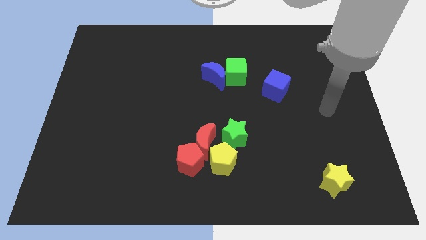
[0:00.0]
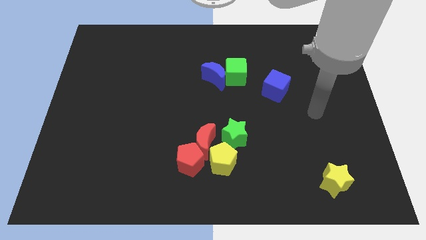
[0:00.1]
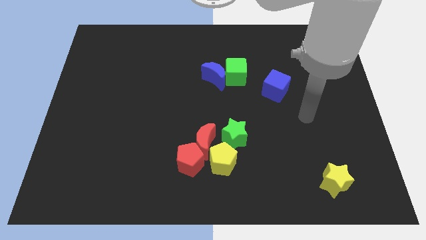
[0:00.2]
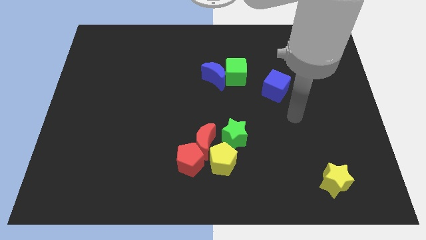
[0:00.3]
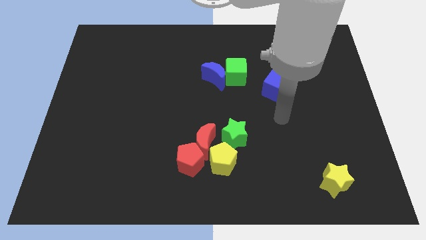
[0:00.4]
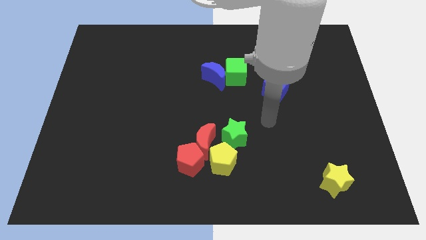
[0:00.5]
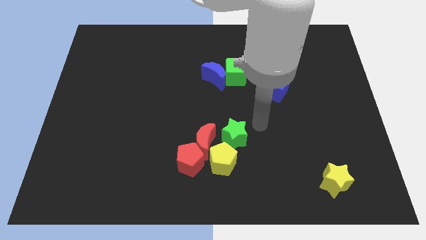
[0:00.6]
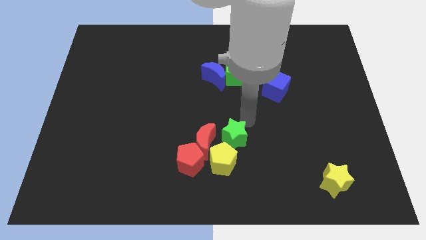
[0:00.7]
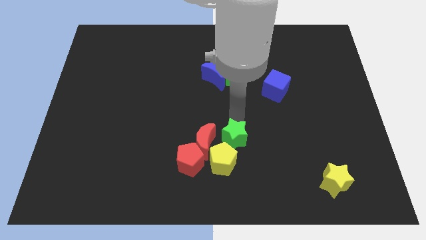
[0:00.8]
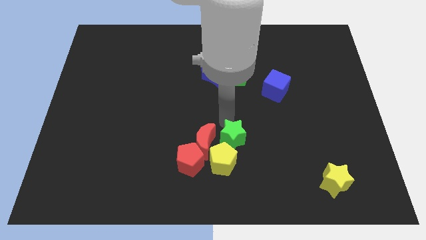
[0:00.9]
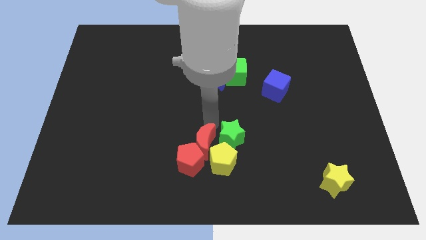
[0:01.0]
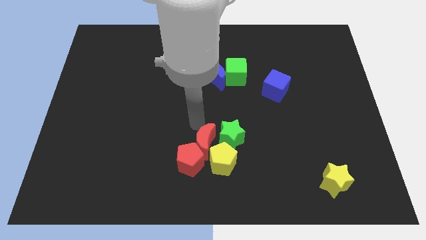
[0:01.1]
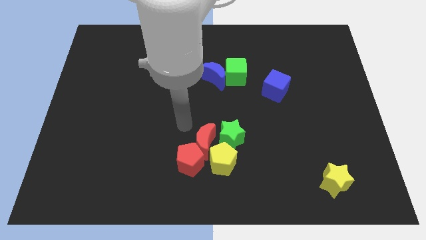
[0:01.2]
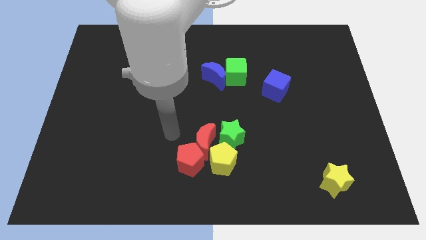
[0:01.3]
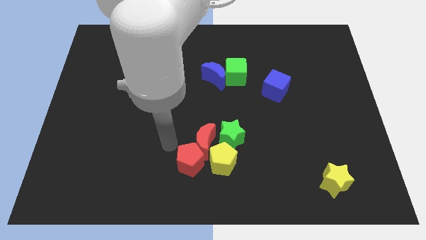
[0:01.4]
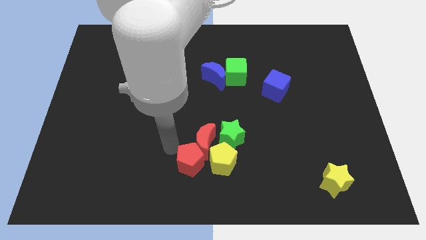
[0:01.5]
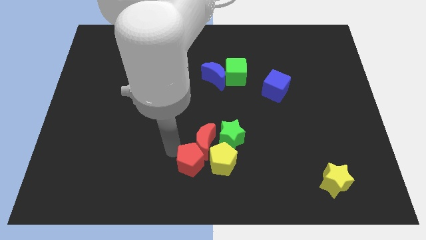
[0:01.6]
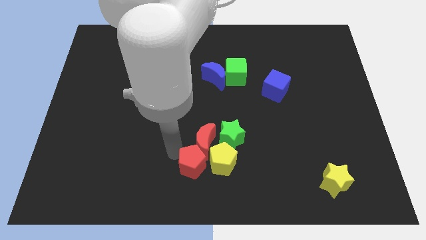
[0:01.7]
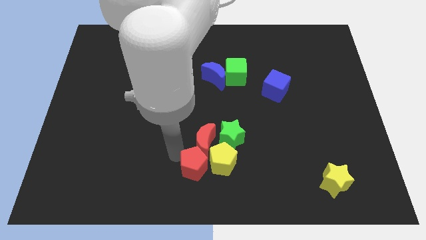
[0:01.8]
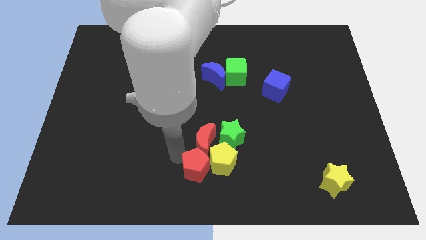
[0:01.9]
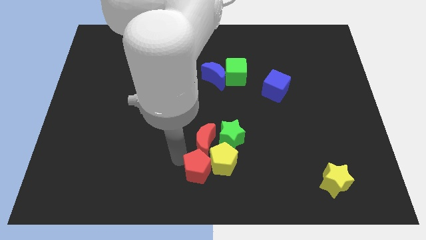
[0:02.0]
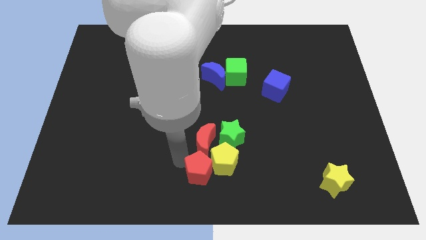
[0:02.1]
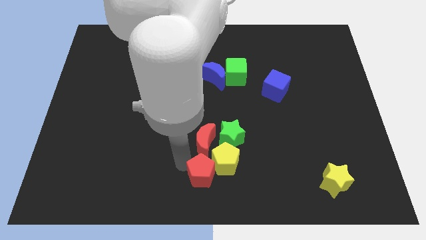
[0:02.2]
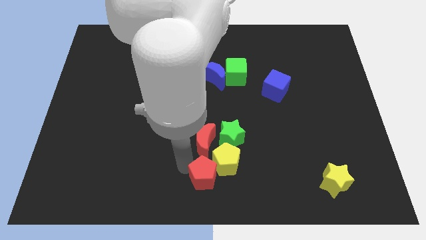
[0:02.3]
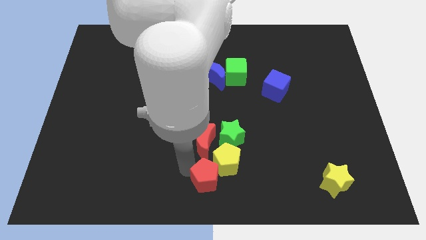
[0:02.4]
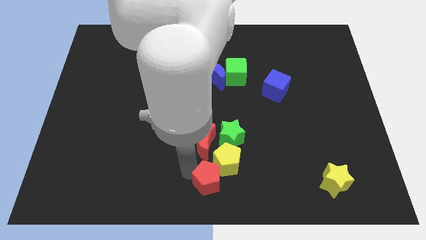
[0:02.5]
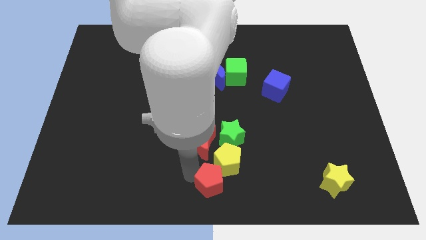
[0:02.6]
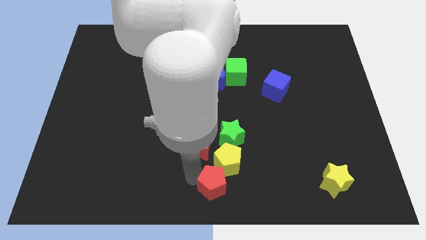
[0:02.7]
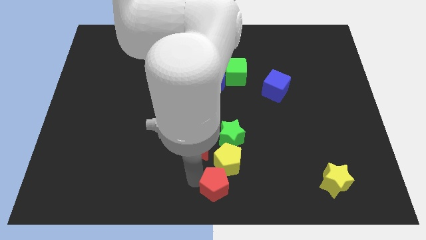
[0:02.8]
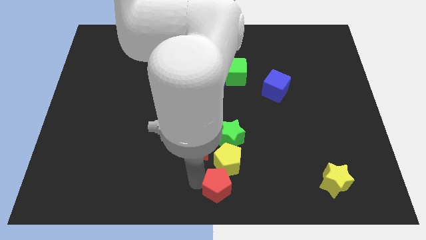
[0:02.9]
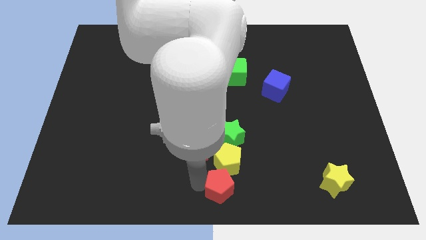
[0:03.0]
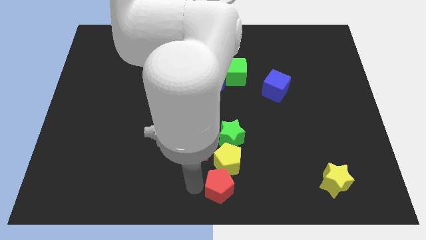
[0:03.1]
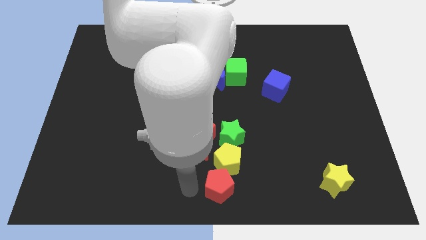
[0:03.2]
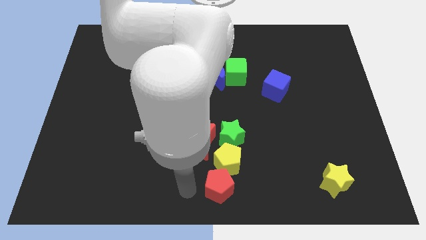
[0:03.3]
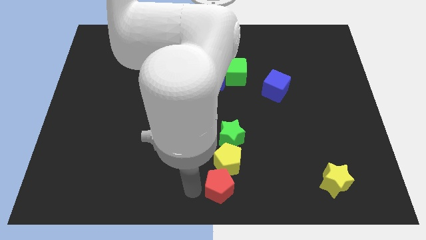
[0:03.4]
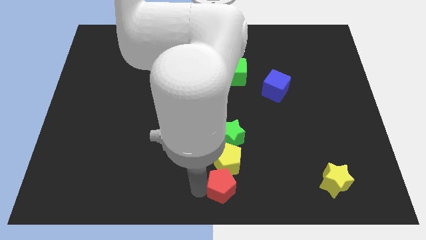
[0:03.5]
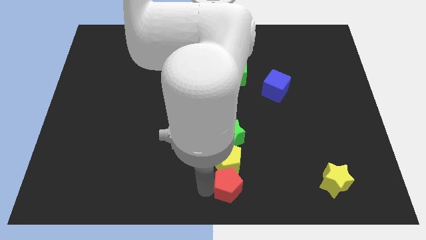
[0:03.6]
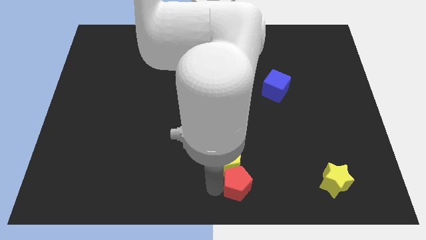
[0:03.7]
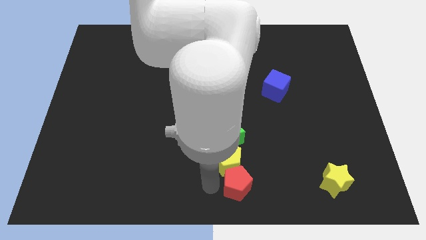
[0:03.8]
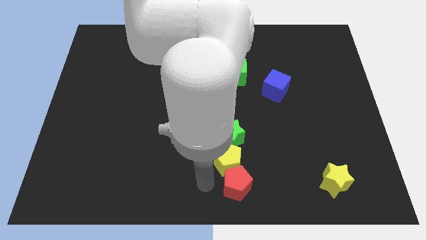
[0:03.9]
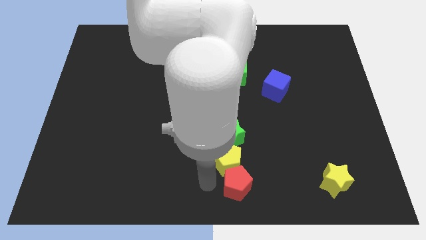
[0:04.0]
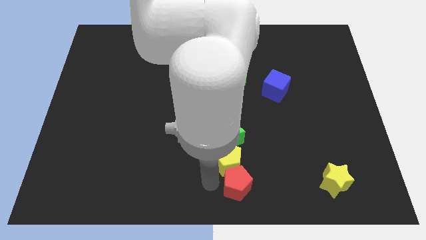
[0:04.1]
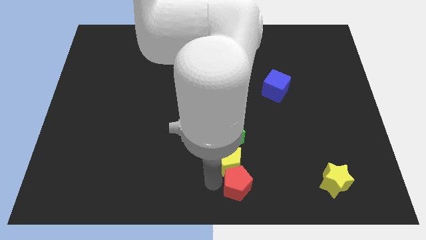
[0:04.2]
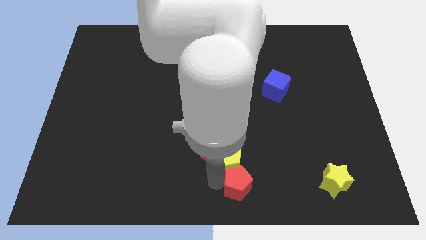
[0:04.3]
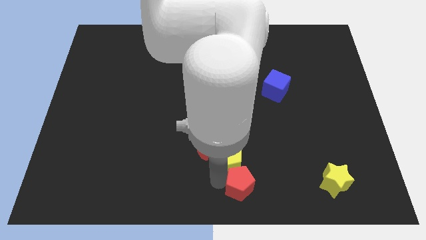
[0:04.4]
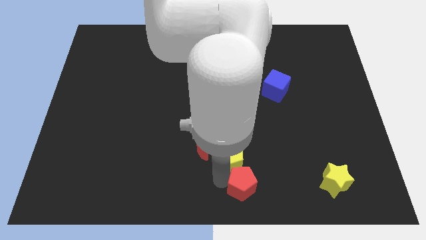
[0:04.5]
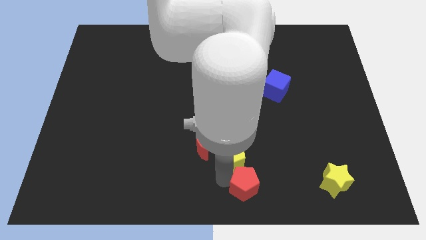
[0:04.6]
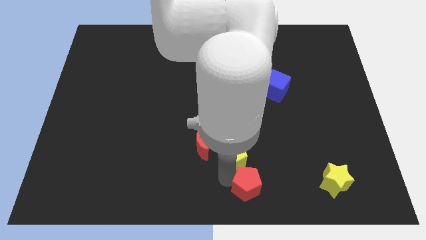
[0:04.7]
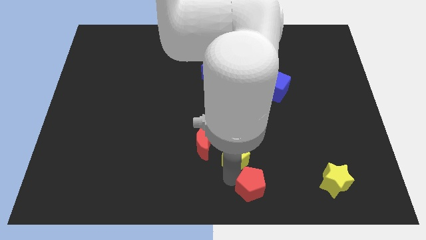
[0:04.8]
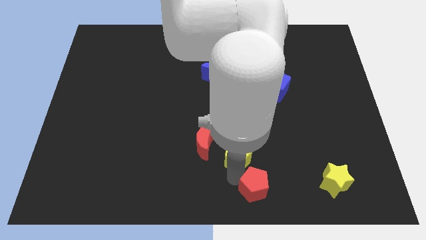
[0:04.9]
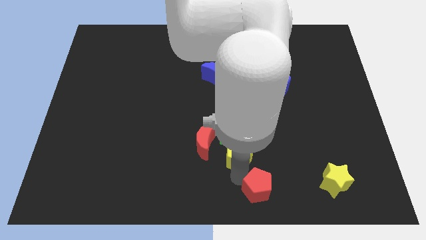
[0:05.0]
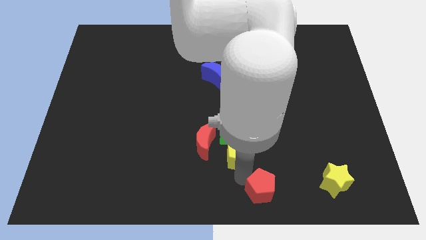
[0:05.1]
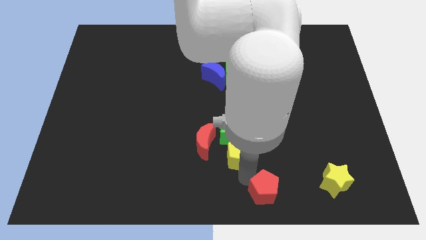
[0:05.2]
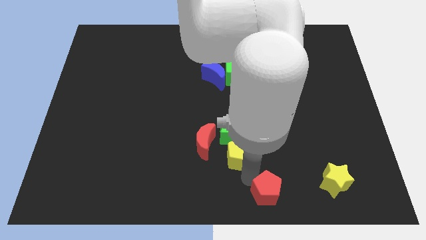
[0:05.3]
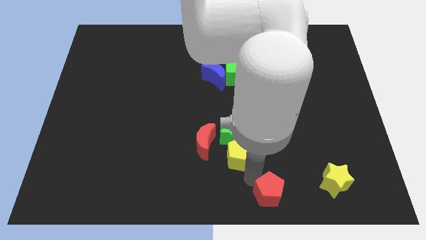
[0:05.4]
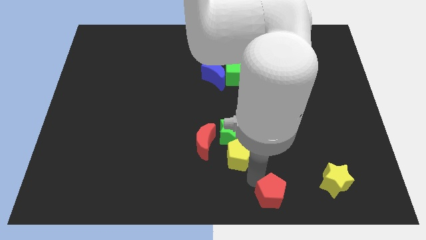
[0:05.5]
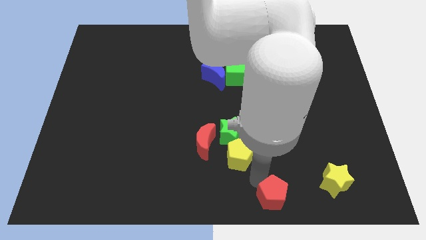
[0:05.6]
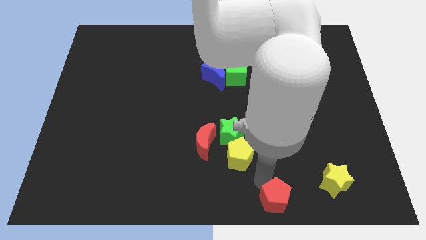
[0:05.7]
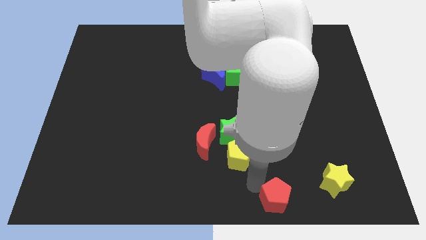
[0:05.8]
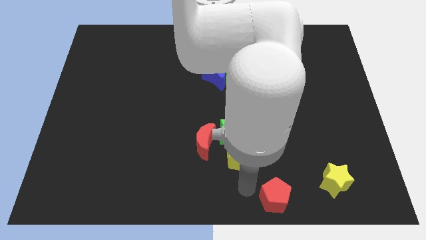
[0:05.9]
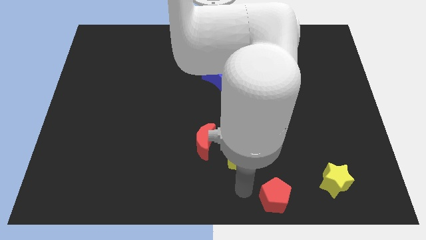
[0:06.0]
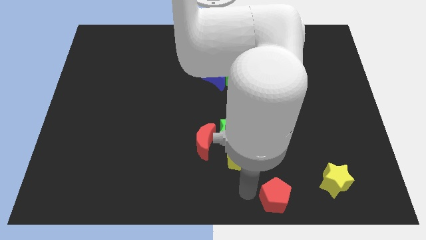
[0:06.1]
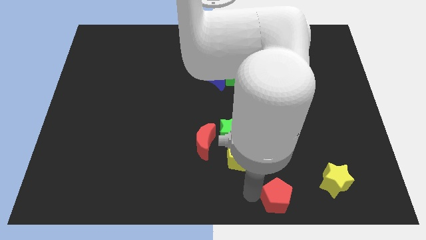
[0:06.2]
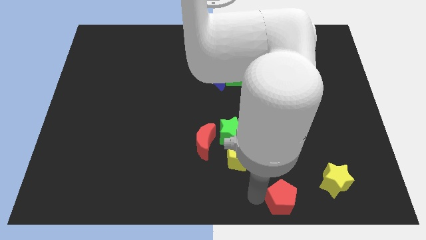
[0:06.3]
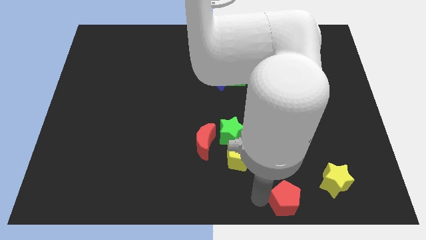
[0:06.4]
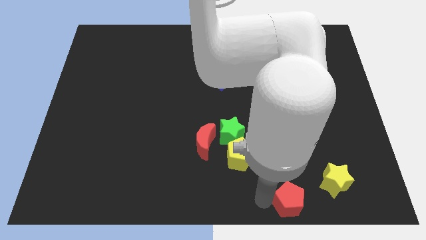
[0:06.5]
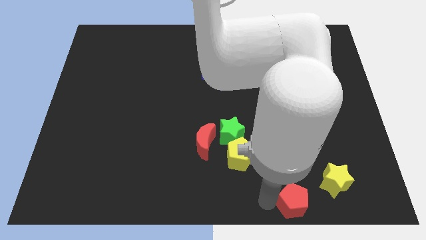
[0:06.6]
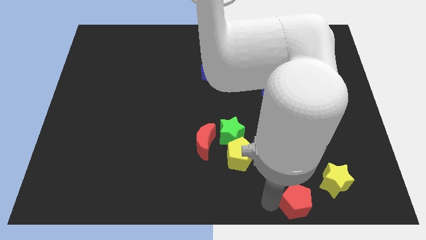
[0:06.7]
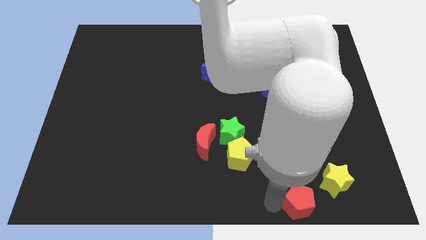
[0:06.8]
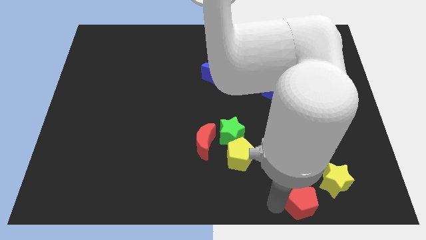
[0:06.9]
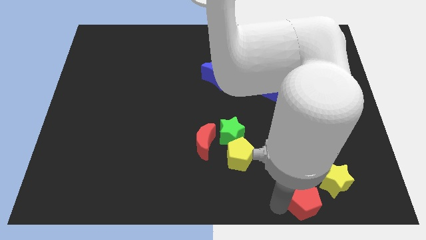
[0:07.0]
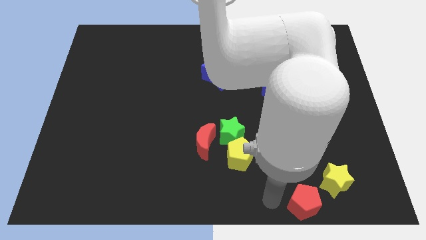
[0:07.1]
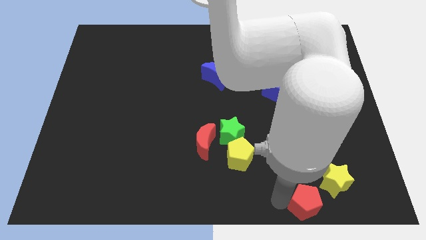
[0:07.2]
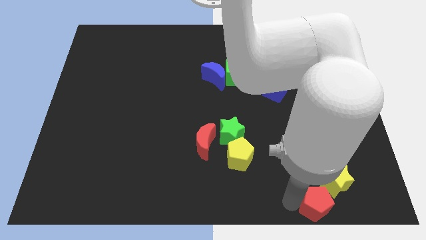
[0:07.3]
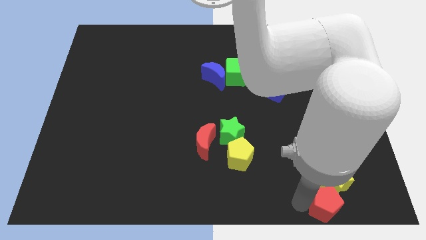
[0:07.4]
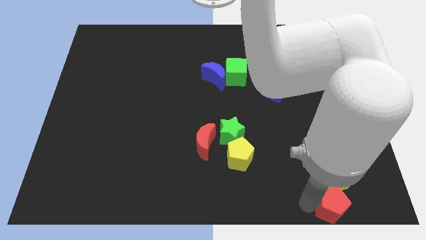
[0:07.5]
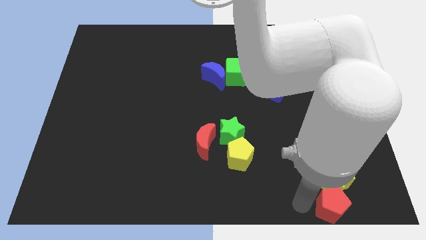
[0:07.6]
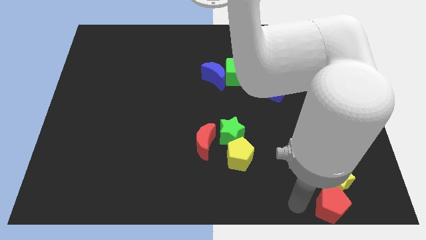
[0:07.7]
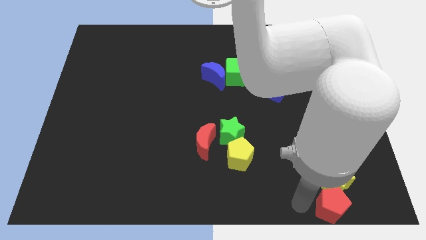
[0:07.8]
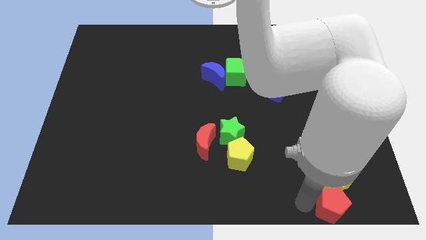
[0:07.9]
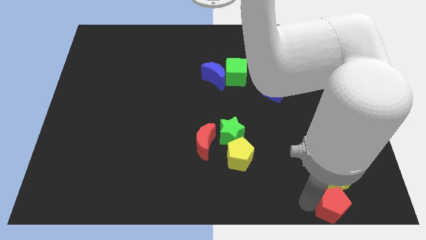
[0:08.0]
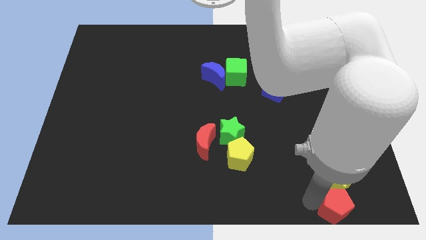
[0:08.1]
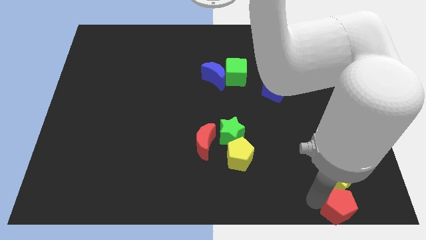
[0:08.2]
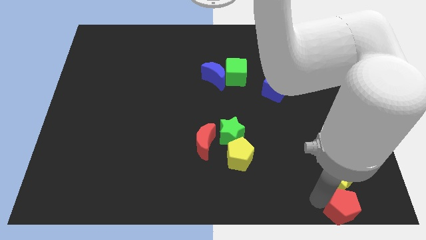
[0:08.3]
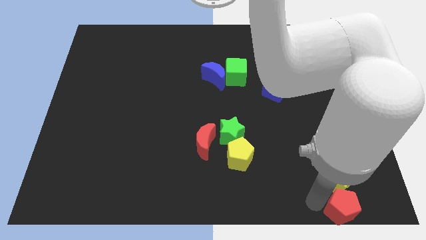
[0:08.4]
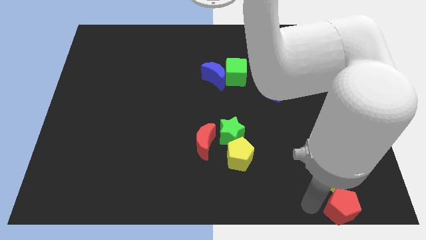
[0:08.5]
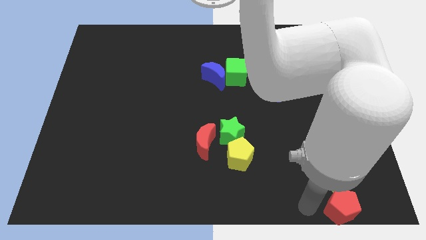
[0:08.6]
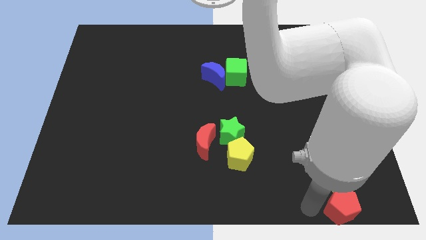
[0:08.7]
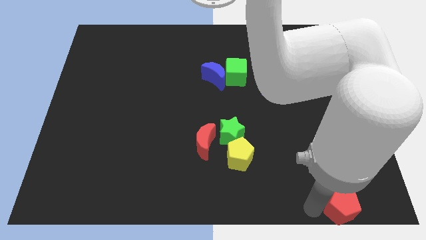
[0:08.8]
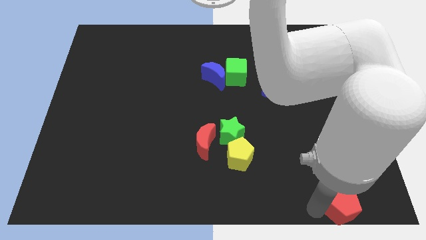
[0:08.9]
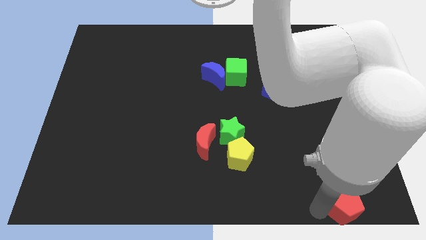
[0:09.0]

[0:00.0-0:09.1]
slide the red pentagon to the lower right corner
